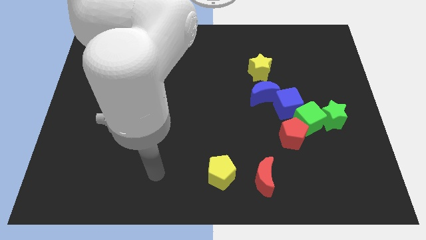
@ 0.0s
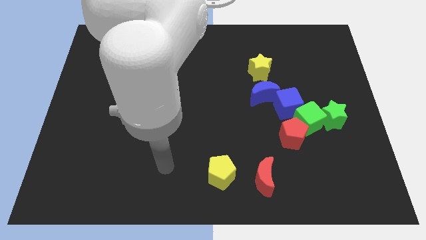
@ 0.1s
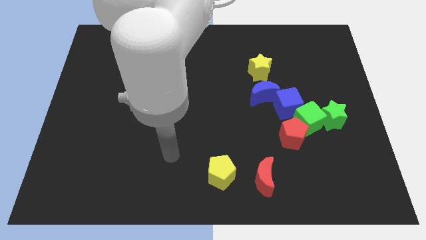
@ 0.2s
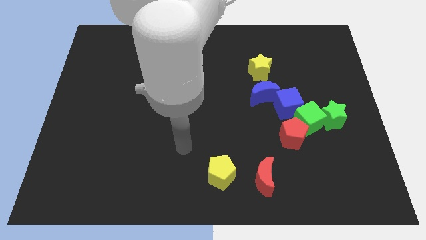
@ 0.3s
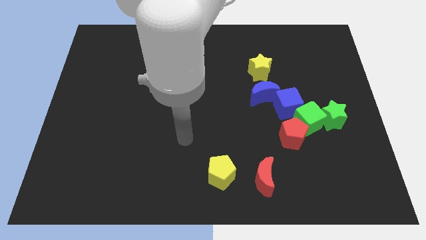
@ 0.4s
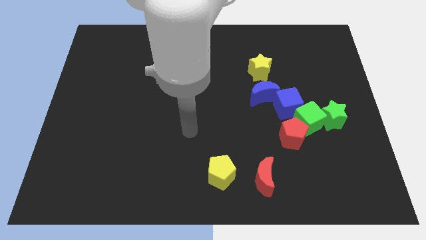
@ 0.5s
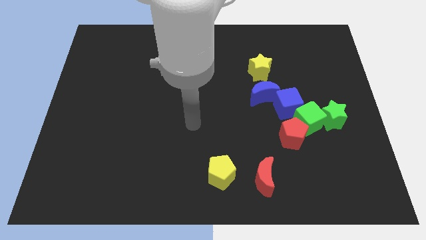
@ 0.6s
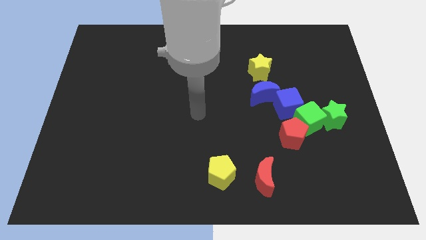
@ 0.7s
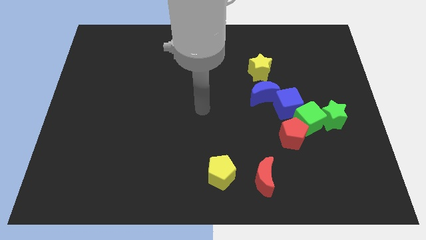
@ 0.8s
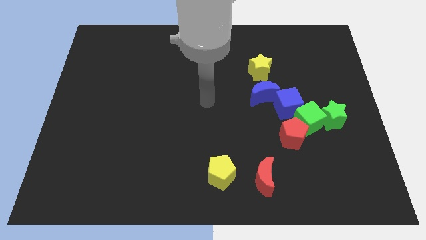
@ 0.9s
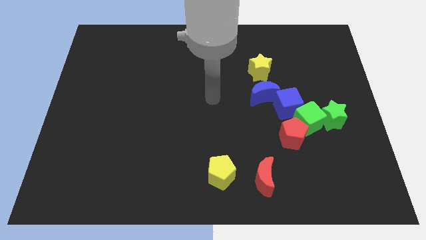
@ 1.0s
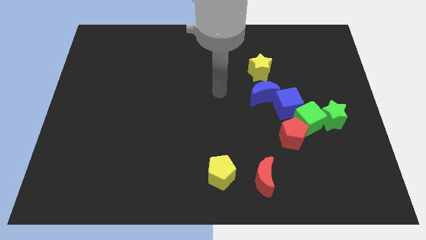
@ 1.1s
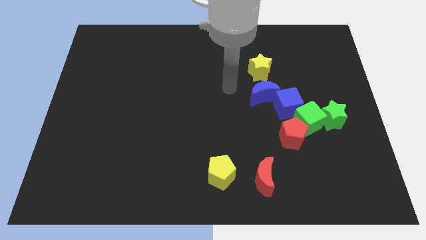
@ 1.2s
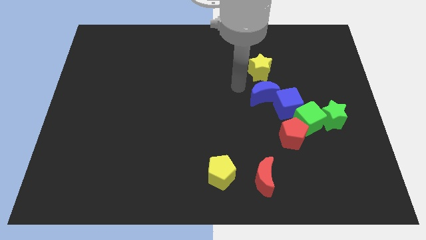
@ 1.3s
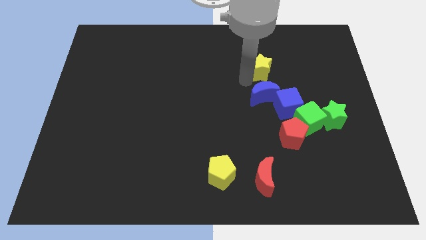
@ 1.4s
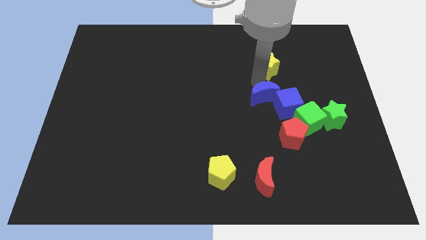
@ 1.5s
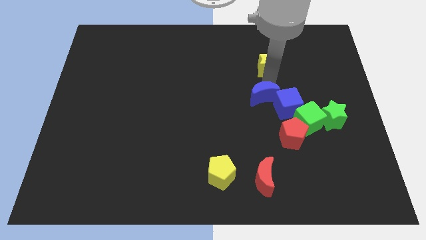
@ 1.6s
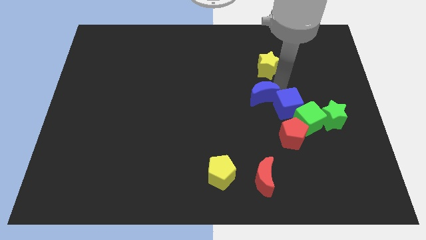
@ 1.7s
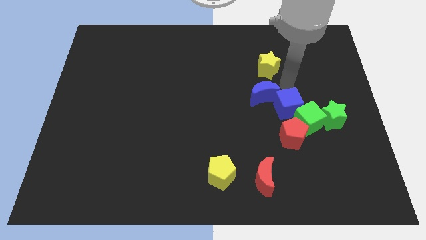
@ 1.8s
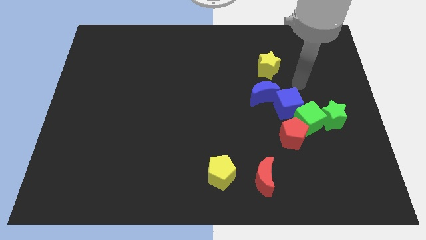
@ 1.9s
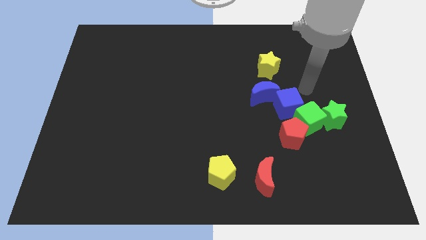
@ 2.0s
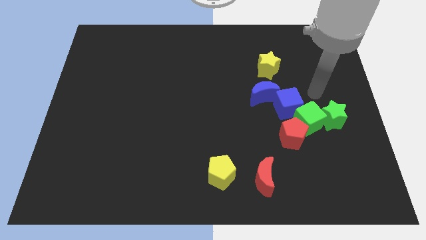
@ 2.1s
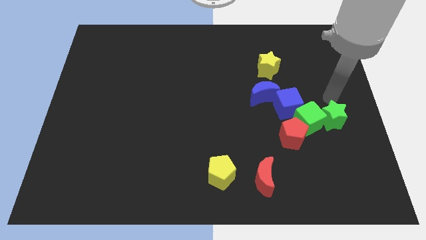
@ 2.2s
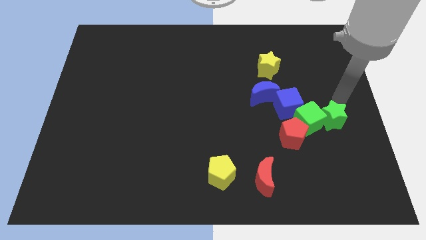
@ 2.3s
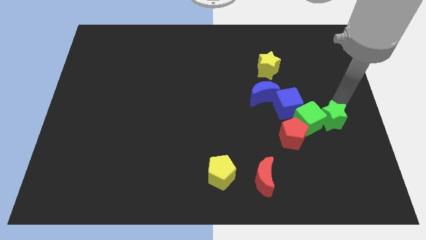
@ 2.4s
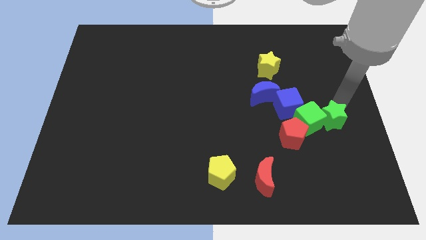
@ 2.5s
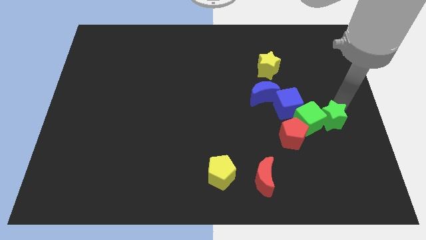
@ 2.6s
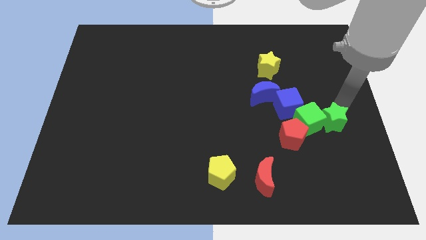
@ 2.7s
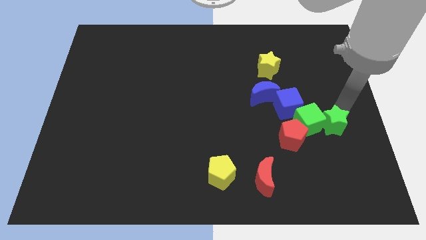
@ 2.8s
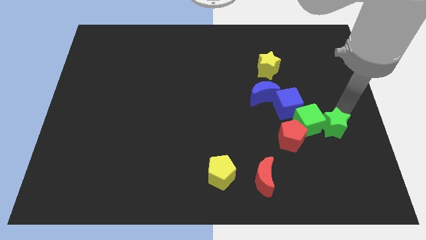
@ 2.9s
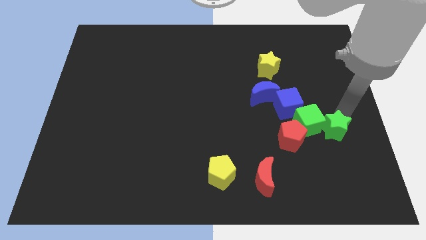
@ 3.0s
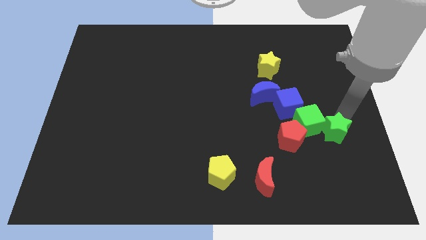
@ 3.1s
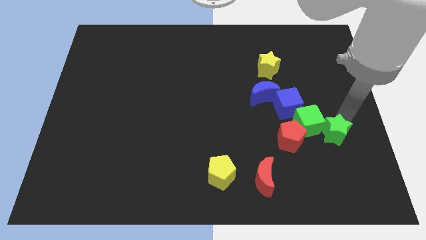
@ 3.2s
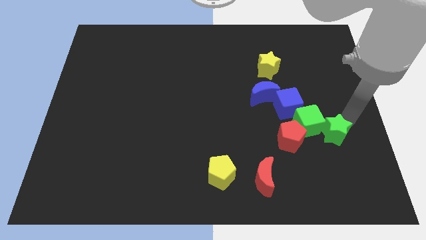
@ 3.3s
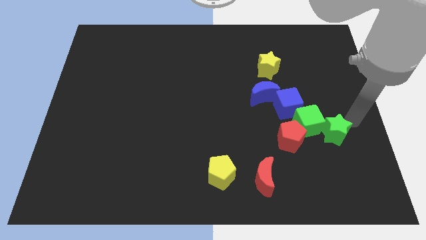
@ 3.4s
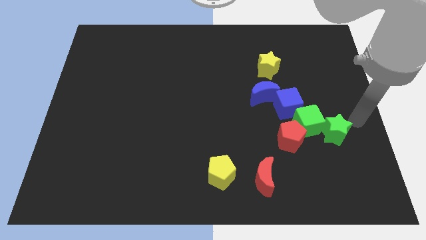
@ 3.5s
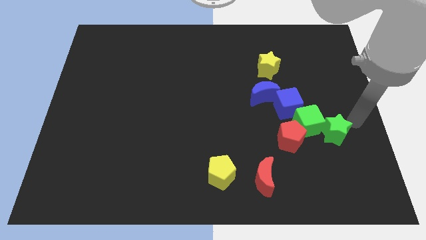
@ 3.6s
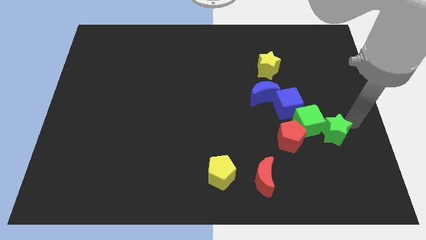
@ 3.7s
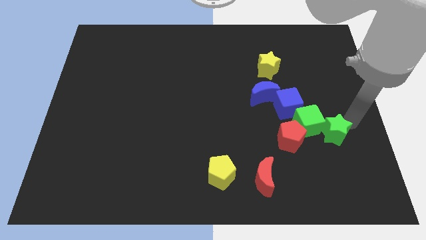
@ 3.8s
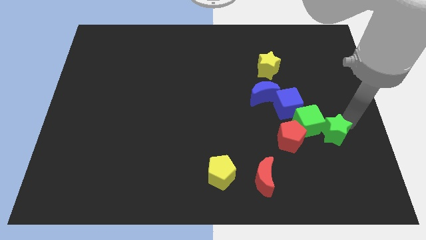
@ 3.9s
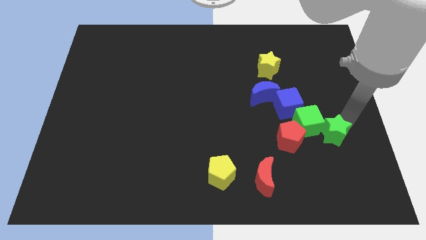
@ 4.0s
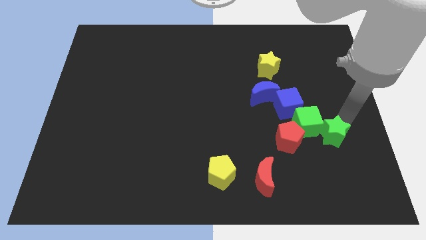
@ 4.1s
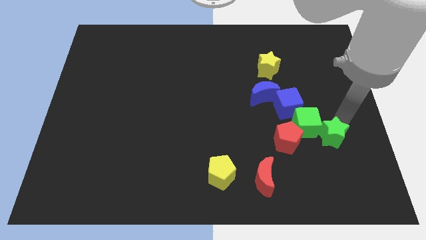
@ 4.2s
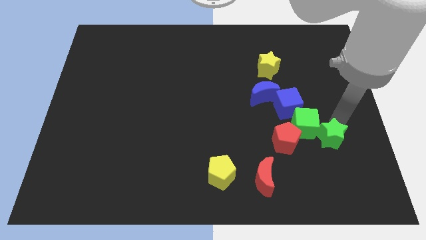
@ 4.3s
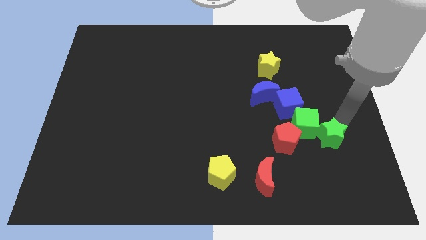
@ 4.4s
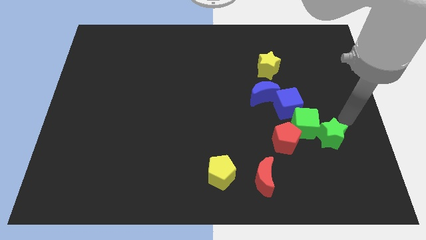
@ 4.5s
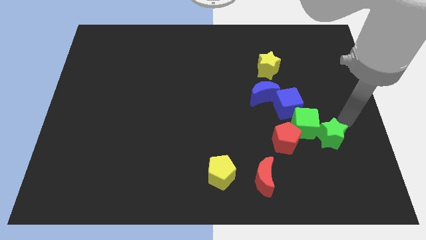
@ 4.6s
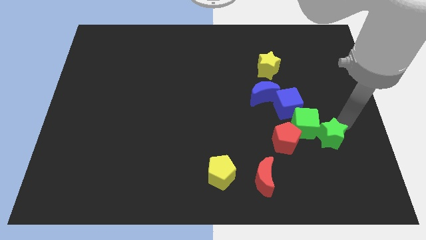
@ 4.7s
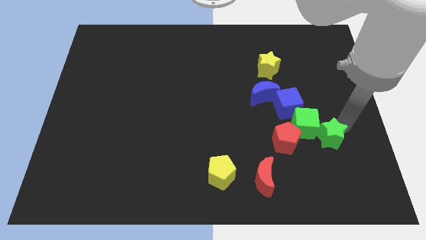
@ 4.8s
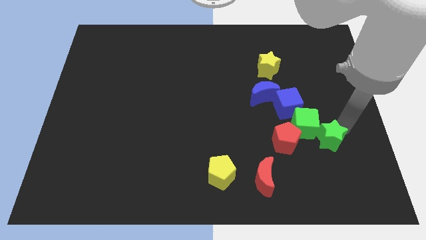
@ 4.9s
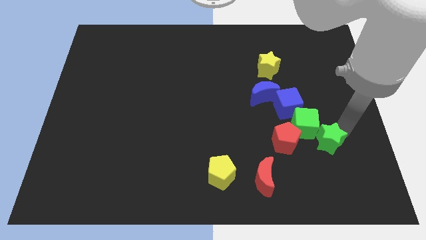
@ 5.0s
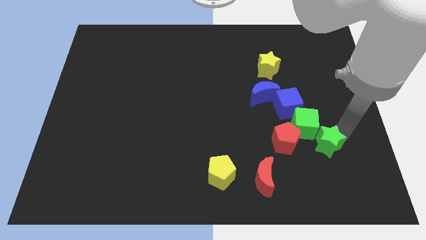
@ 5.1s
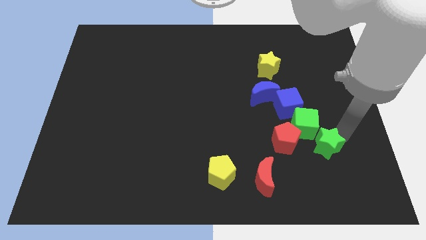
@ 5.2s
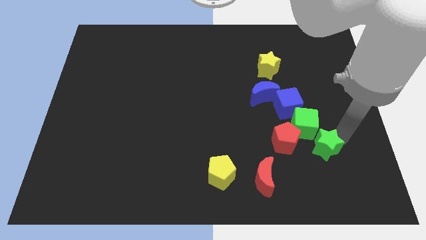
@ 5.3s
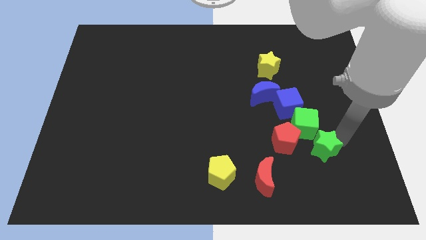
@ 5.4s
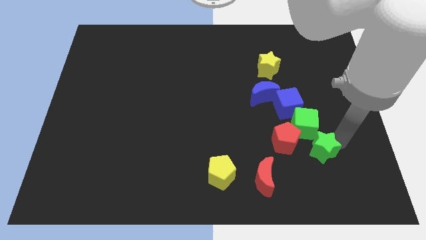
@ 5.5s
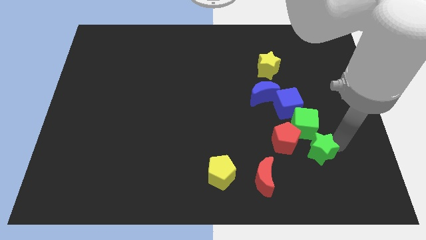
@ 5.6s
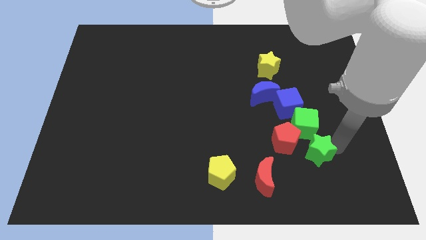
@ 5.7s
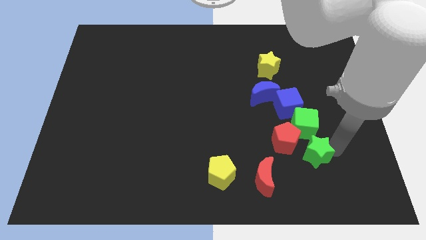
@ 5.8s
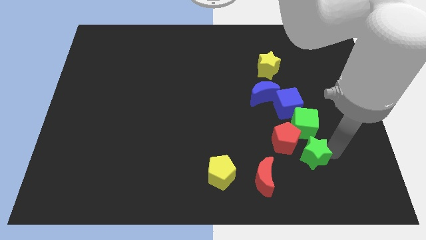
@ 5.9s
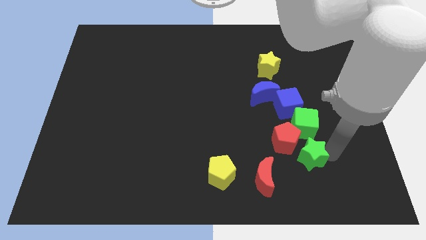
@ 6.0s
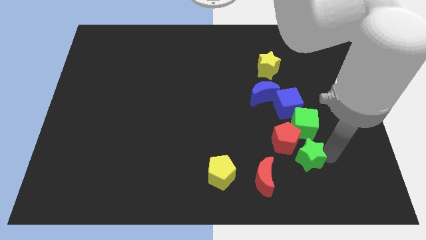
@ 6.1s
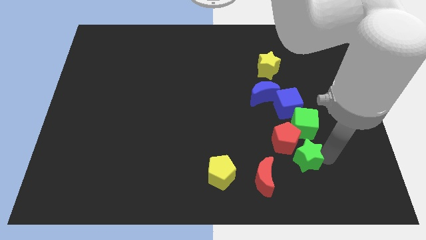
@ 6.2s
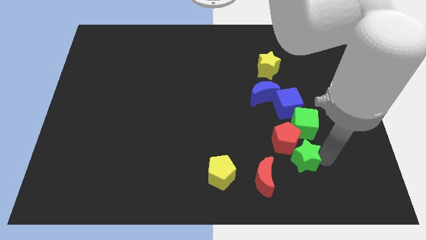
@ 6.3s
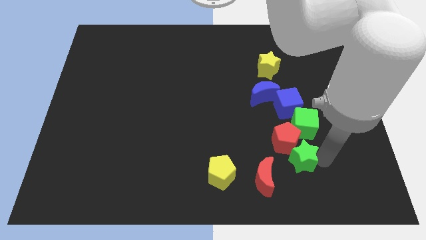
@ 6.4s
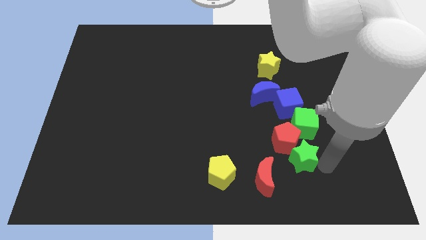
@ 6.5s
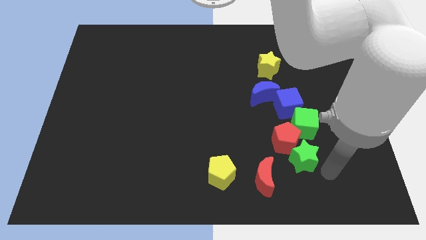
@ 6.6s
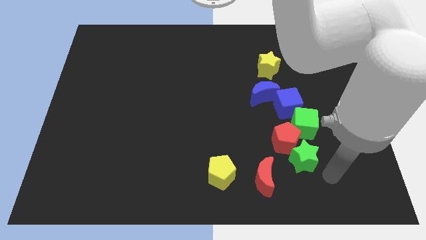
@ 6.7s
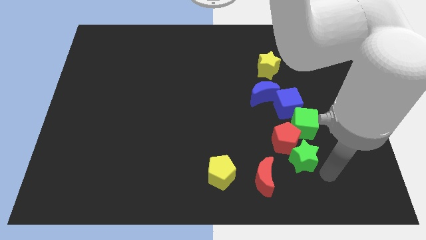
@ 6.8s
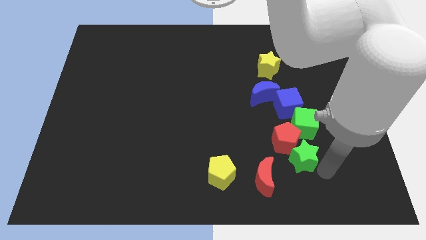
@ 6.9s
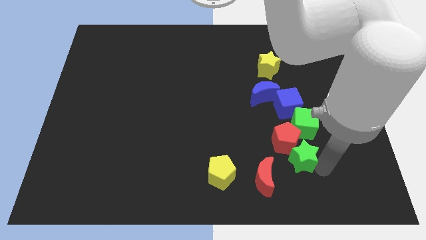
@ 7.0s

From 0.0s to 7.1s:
push the green star diagonally down and to the left of the green cube
